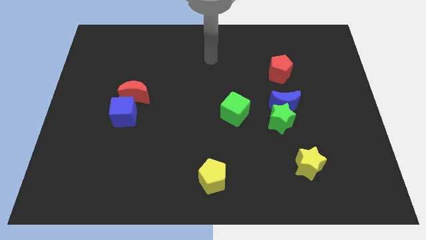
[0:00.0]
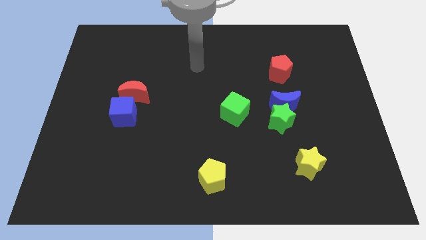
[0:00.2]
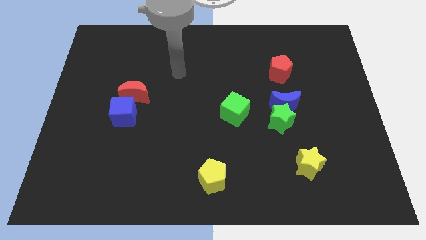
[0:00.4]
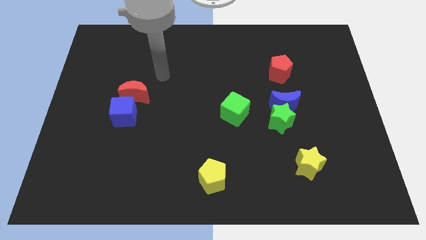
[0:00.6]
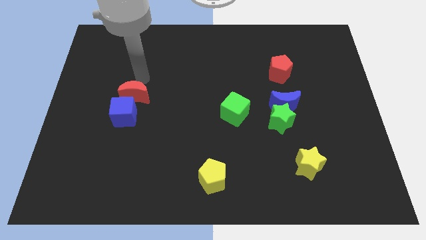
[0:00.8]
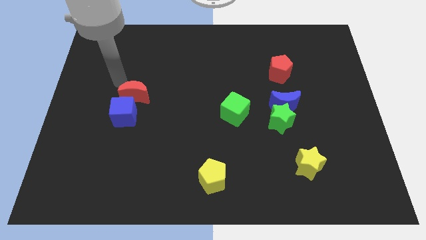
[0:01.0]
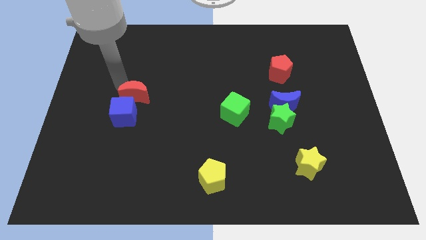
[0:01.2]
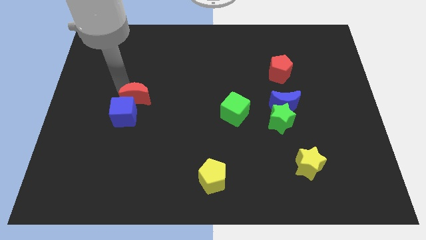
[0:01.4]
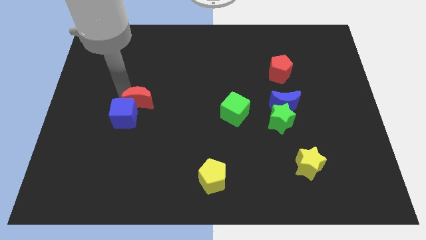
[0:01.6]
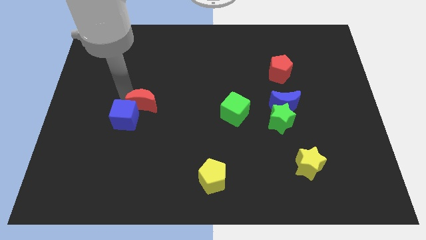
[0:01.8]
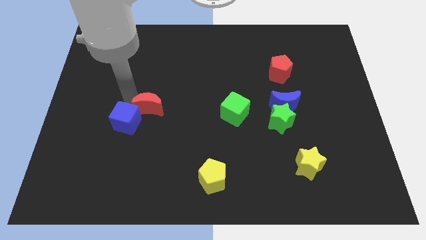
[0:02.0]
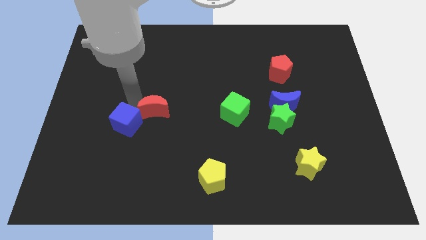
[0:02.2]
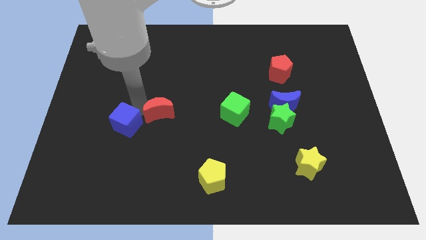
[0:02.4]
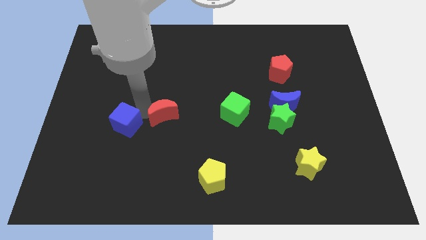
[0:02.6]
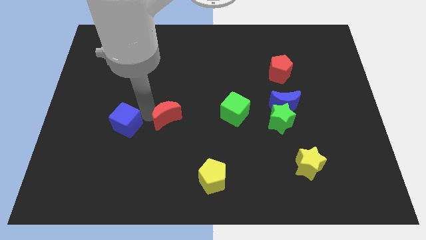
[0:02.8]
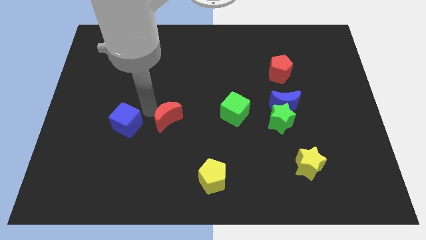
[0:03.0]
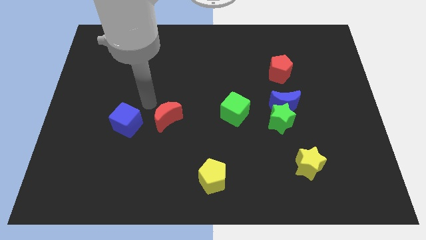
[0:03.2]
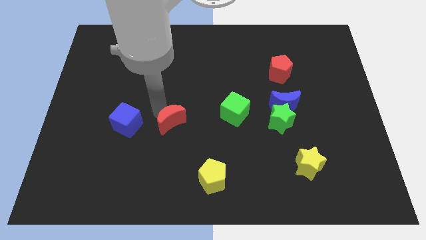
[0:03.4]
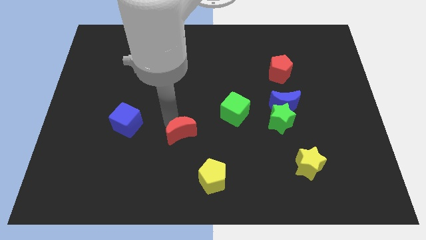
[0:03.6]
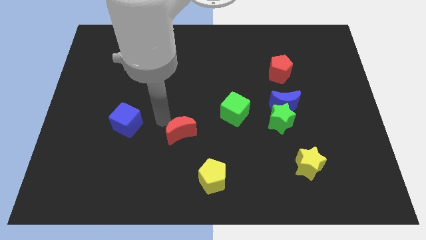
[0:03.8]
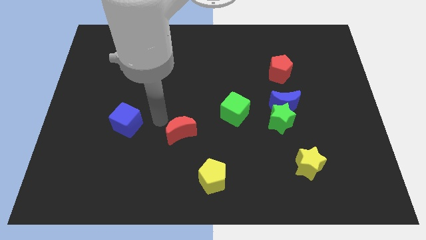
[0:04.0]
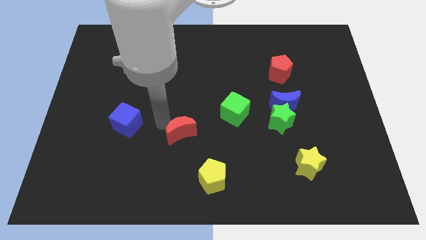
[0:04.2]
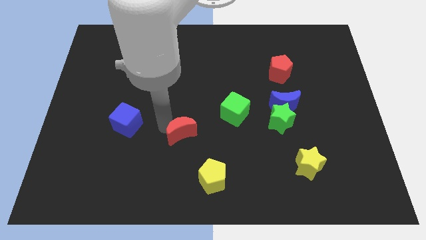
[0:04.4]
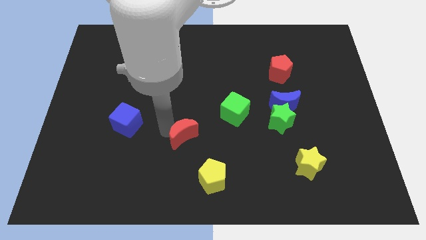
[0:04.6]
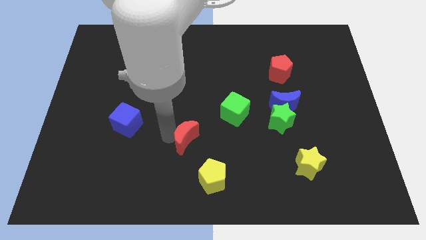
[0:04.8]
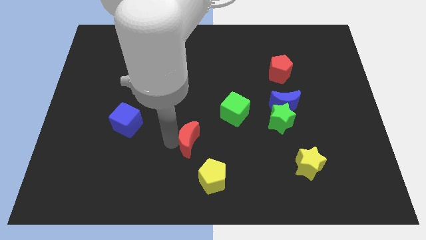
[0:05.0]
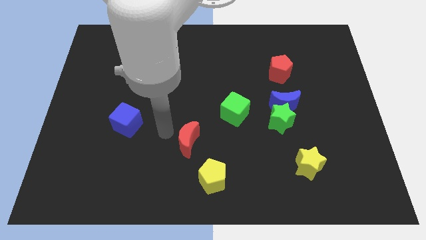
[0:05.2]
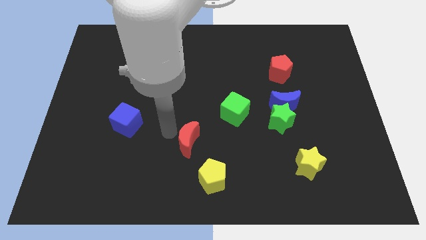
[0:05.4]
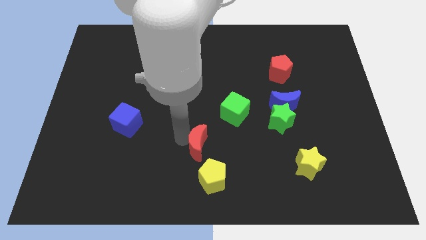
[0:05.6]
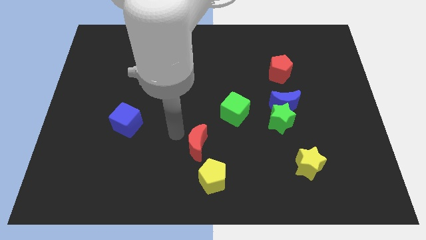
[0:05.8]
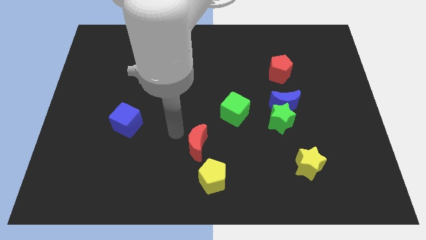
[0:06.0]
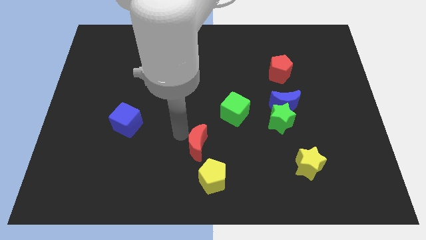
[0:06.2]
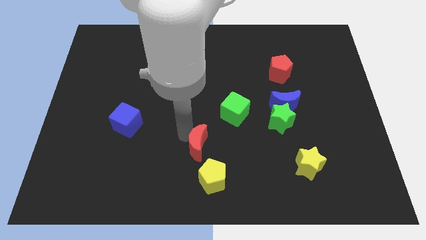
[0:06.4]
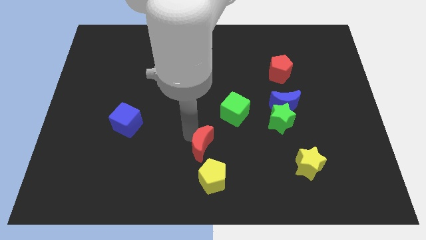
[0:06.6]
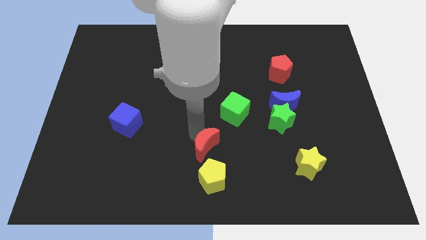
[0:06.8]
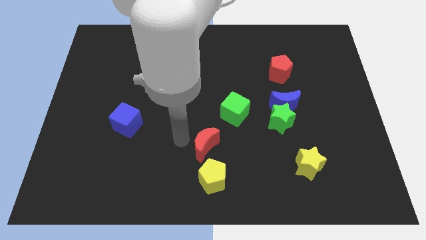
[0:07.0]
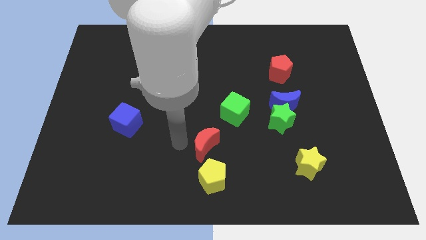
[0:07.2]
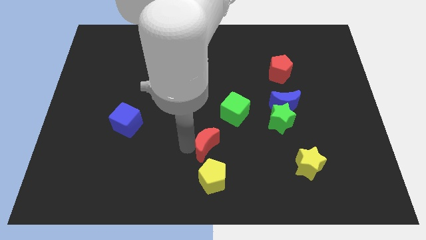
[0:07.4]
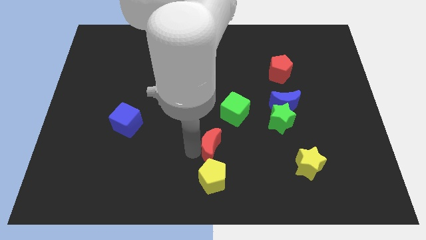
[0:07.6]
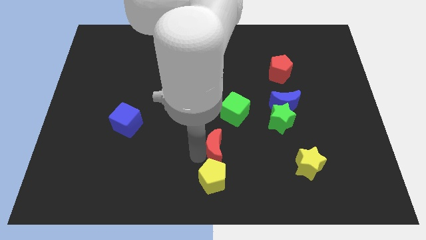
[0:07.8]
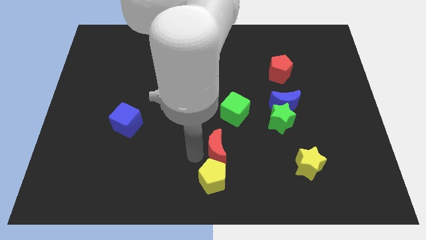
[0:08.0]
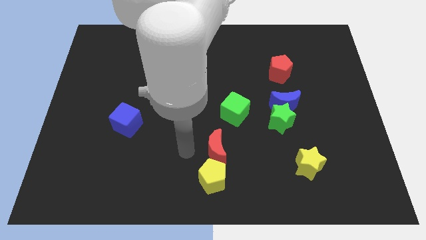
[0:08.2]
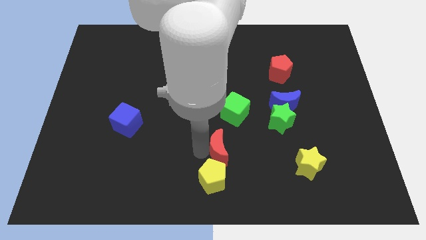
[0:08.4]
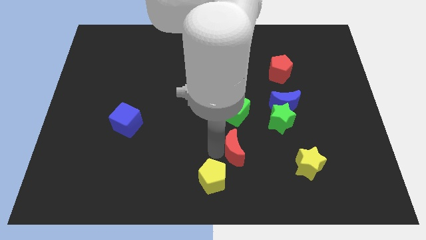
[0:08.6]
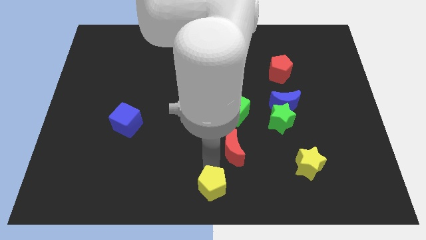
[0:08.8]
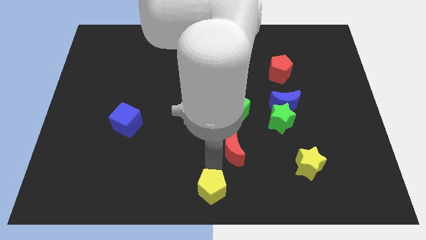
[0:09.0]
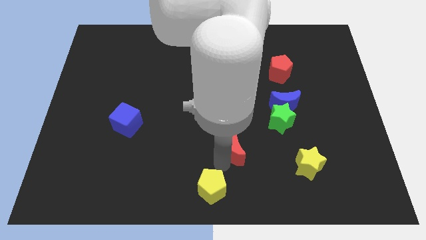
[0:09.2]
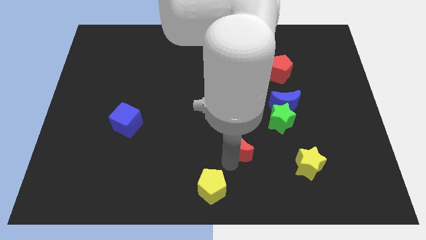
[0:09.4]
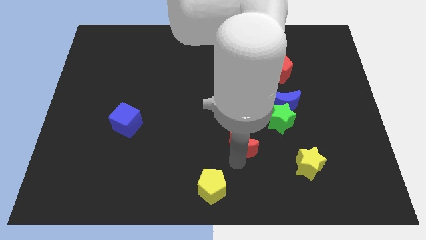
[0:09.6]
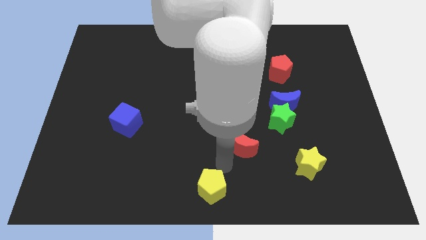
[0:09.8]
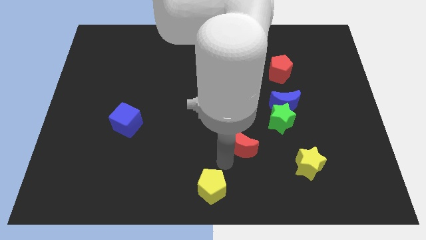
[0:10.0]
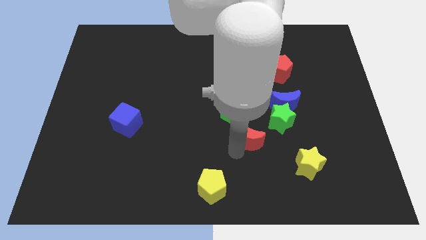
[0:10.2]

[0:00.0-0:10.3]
push the red moon to the bottom right side of the green cube

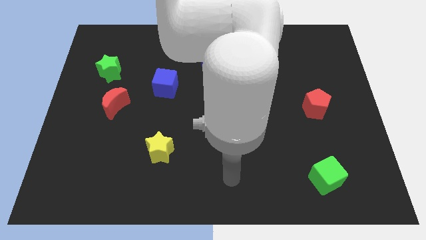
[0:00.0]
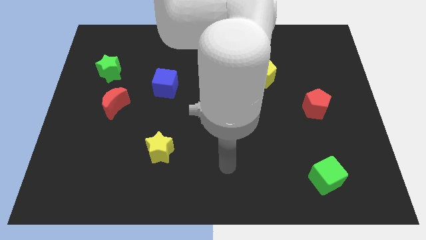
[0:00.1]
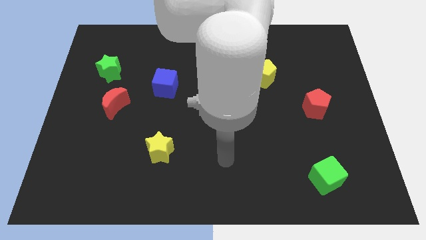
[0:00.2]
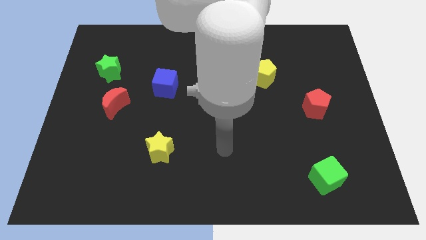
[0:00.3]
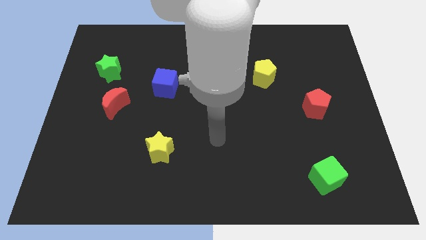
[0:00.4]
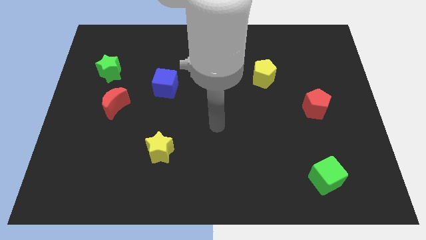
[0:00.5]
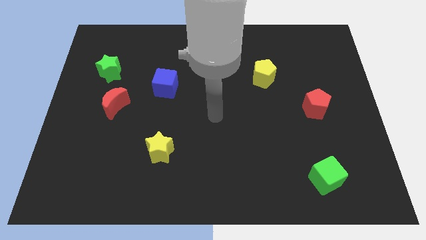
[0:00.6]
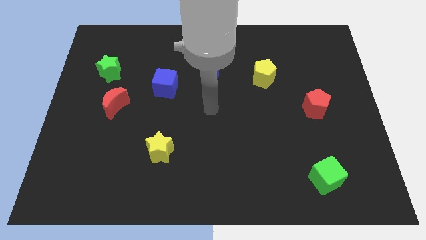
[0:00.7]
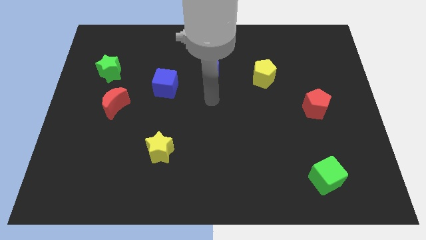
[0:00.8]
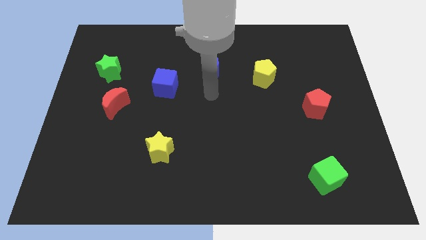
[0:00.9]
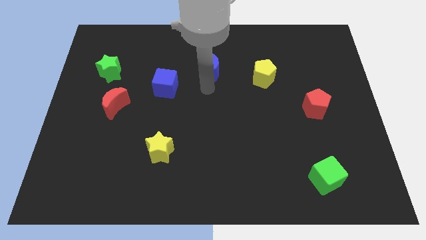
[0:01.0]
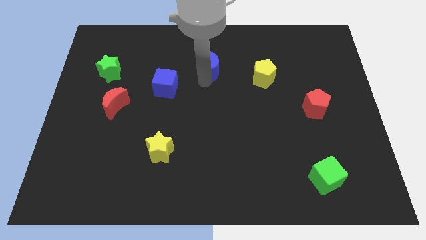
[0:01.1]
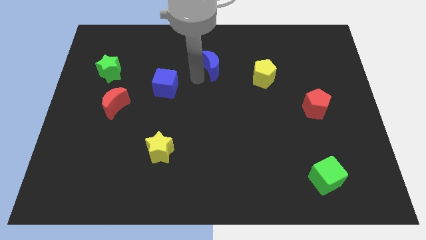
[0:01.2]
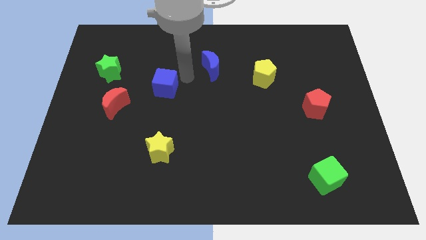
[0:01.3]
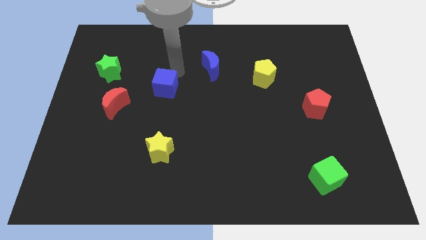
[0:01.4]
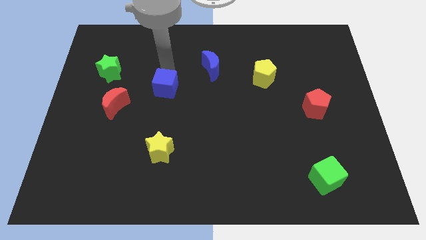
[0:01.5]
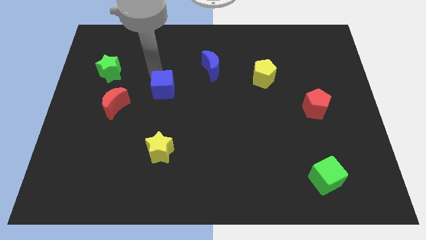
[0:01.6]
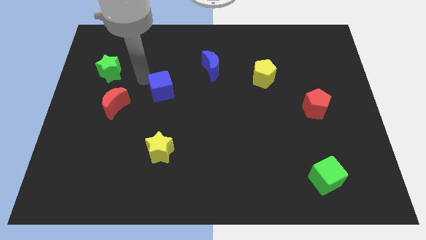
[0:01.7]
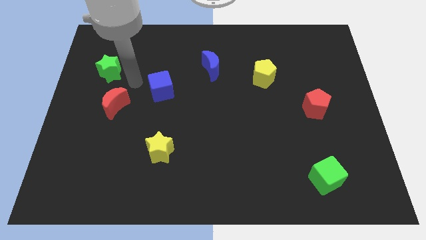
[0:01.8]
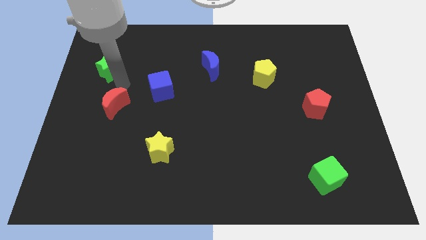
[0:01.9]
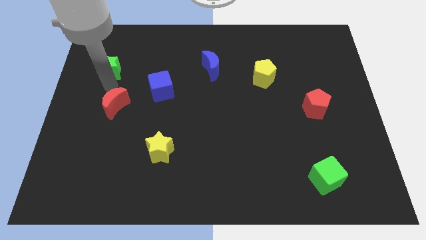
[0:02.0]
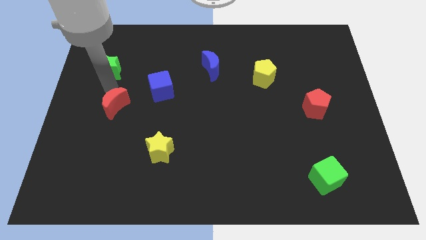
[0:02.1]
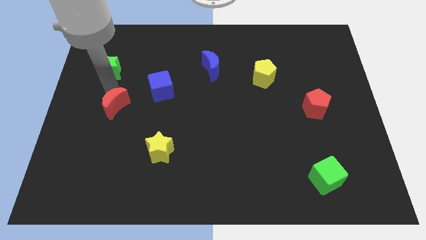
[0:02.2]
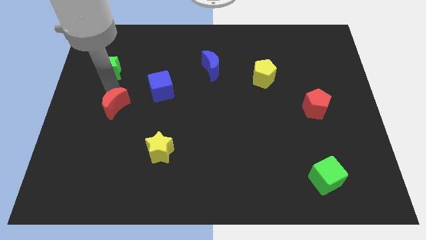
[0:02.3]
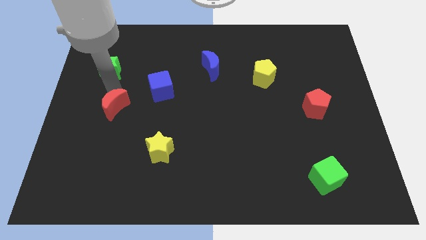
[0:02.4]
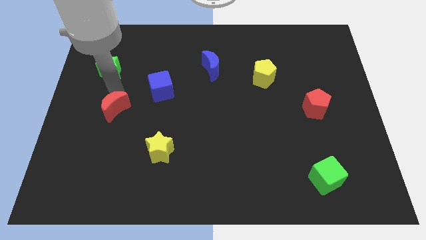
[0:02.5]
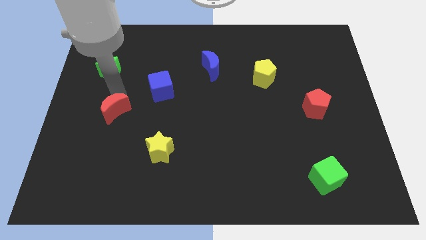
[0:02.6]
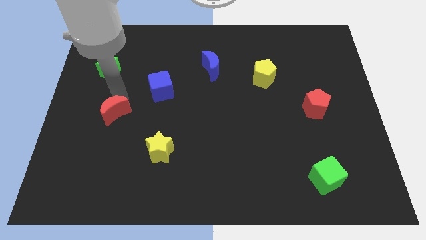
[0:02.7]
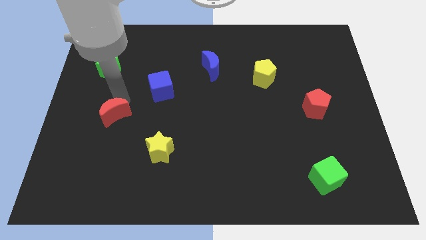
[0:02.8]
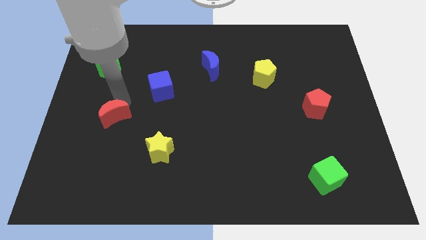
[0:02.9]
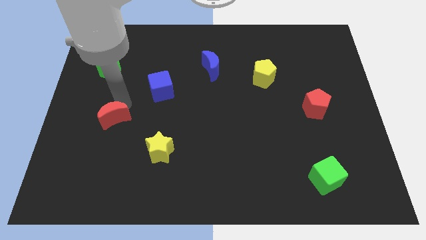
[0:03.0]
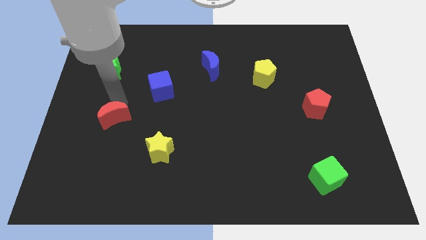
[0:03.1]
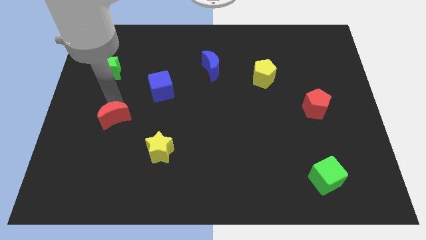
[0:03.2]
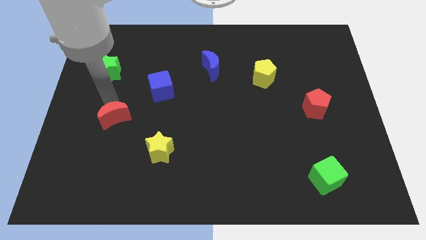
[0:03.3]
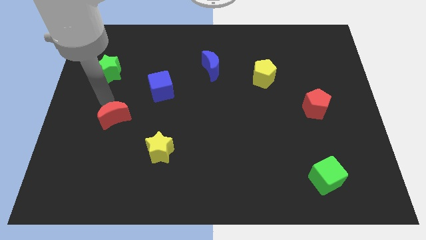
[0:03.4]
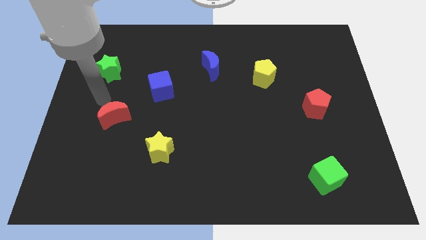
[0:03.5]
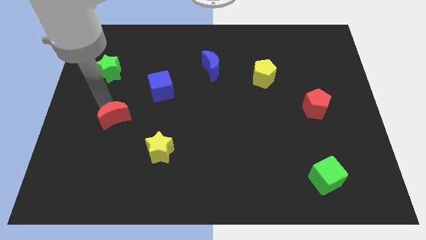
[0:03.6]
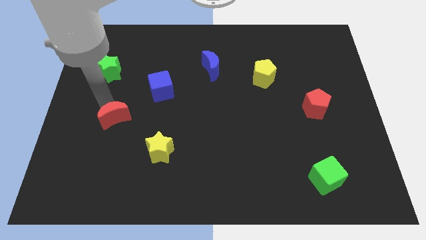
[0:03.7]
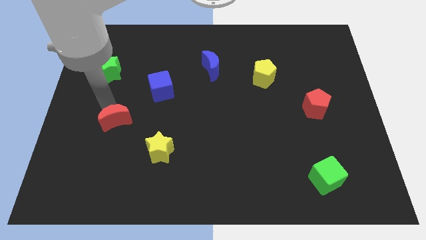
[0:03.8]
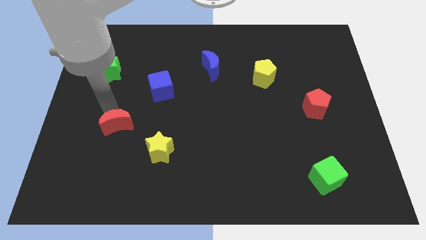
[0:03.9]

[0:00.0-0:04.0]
slide the red moon to the top left of the yellow star
